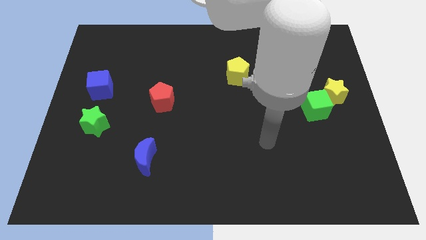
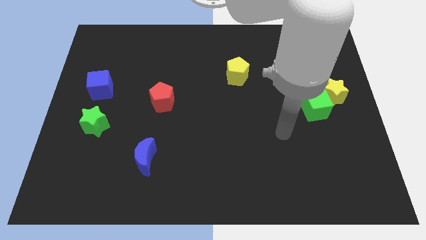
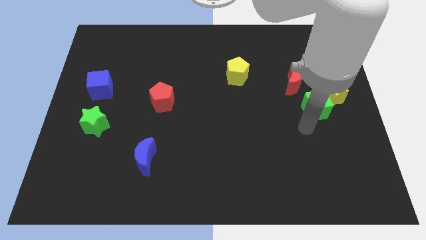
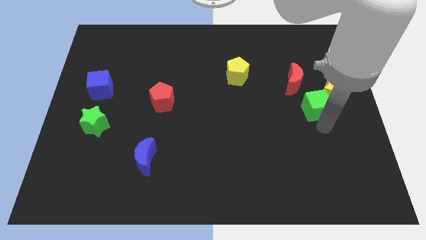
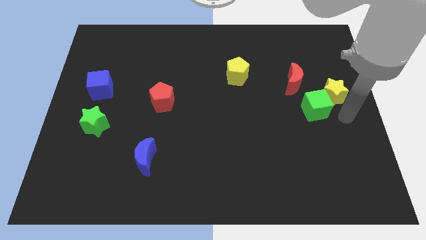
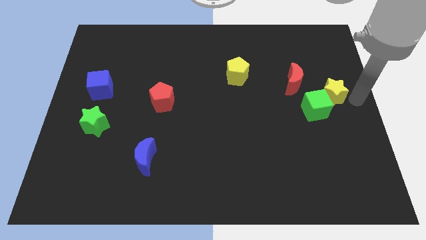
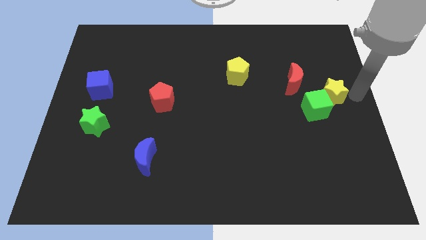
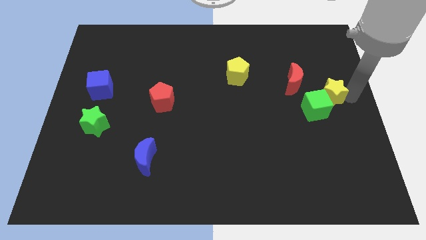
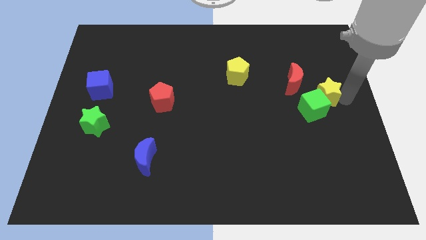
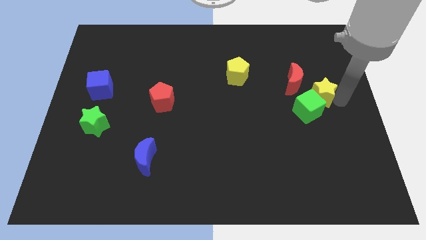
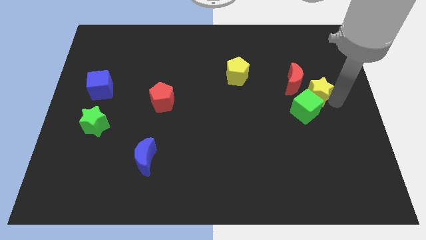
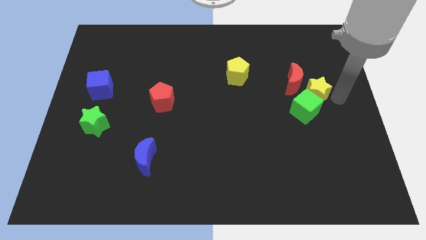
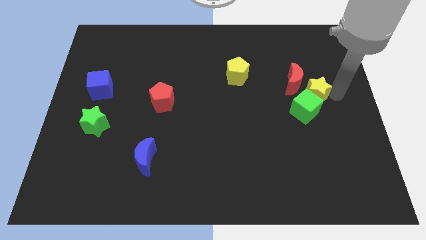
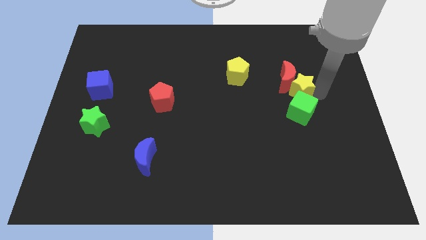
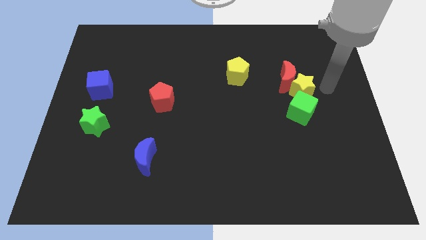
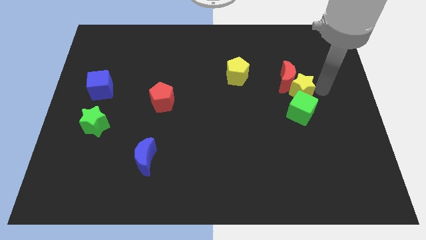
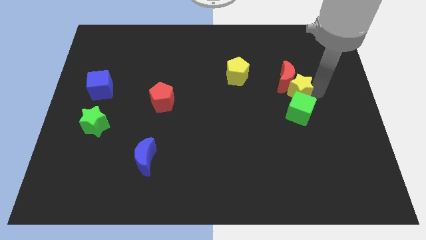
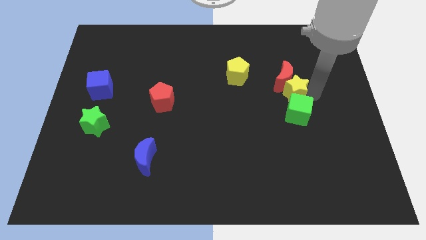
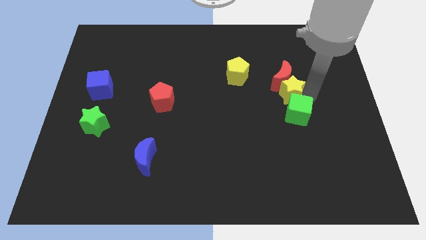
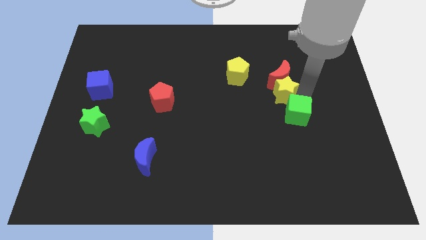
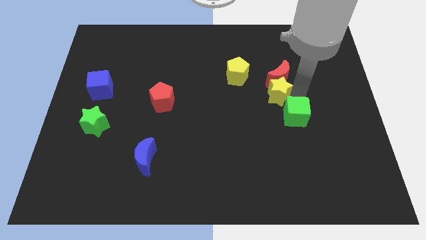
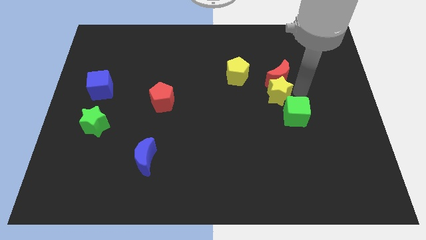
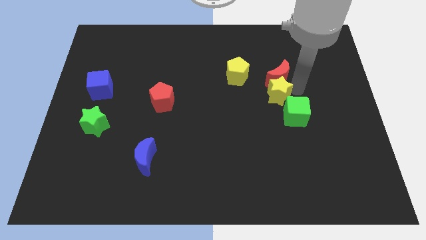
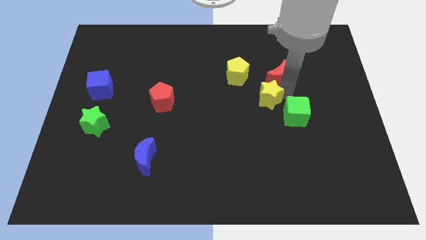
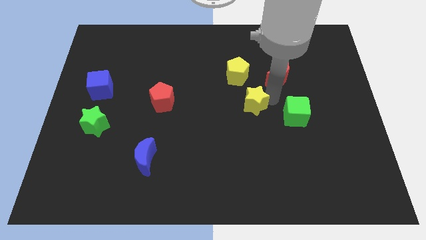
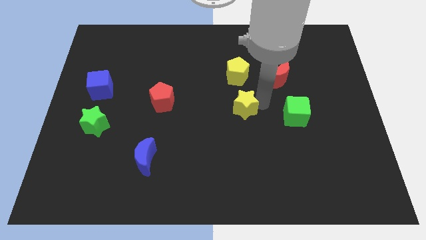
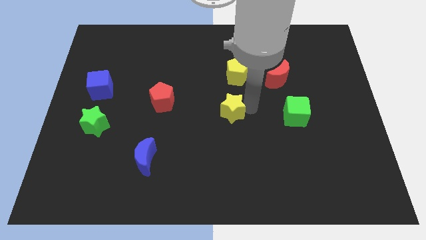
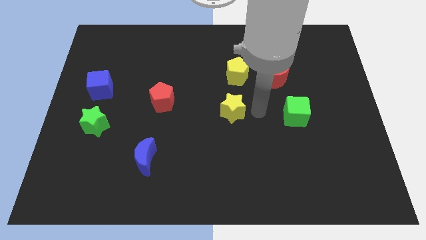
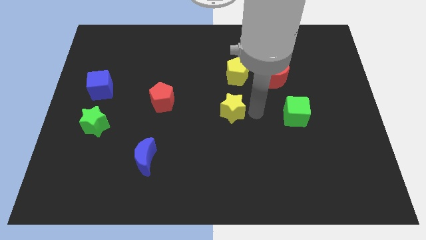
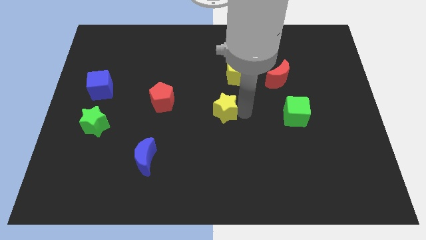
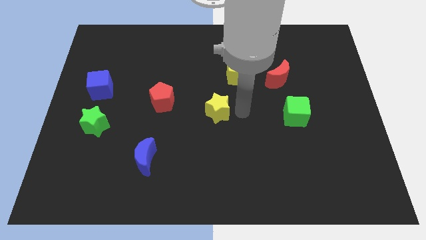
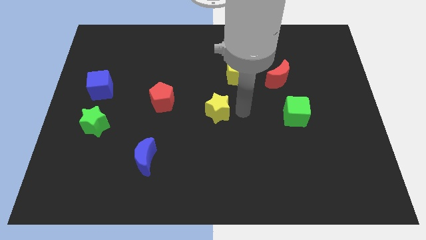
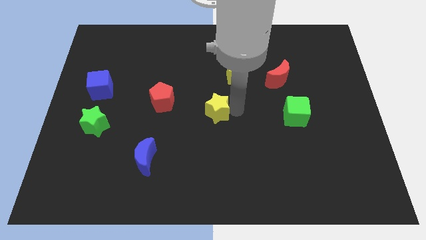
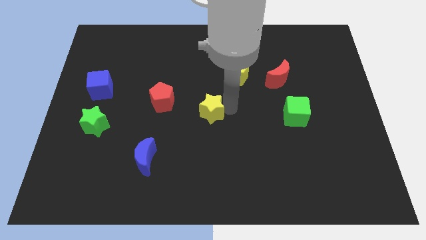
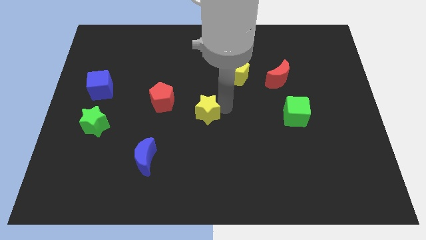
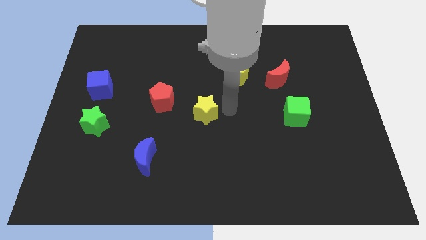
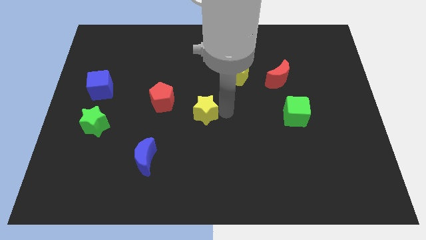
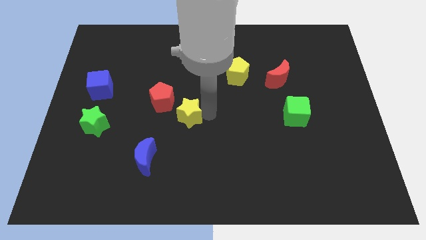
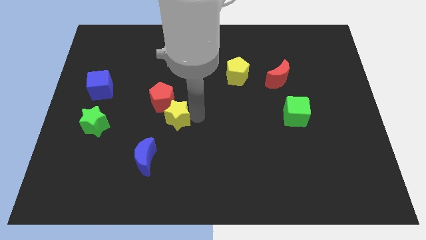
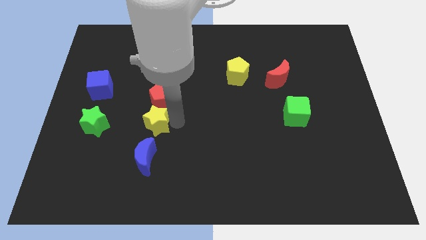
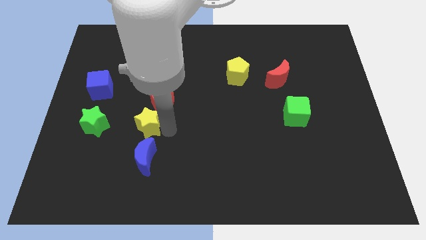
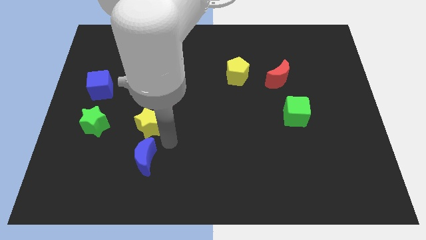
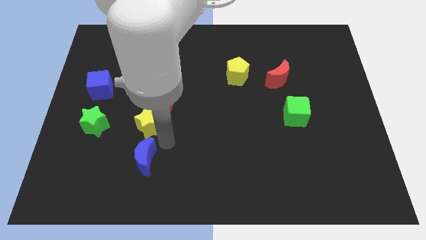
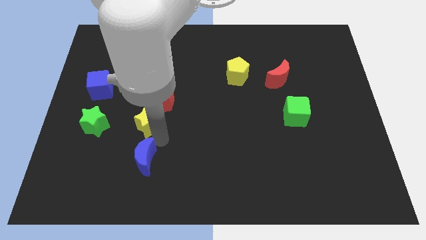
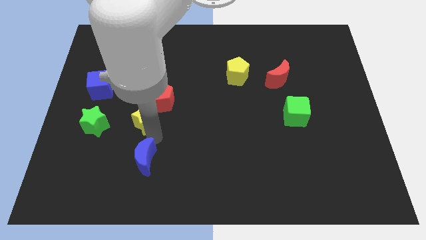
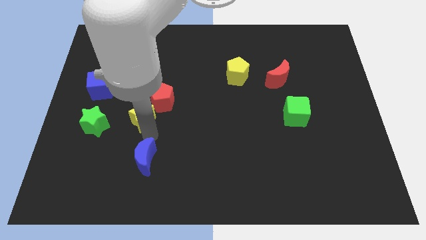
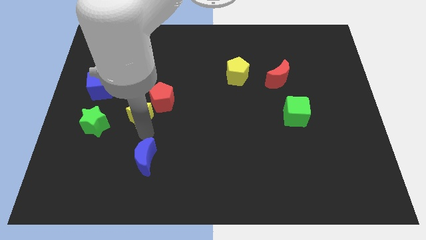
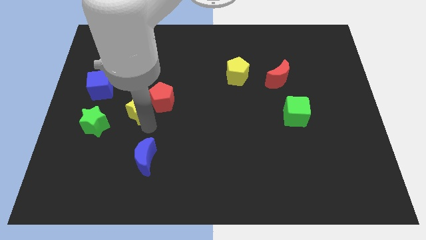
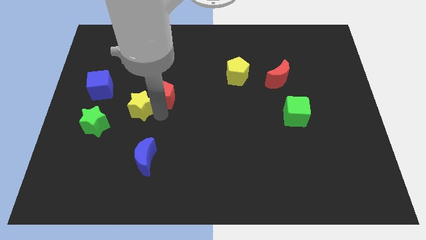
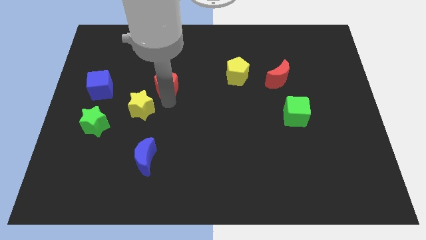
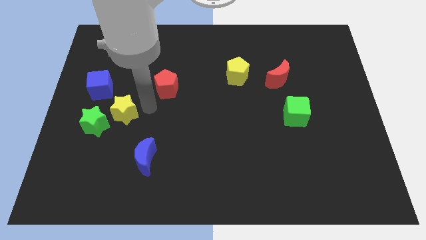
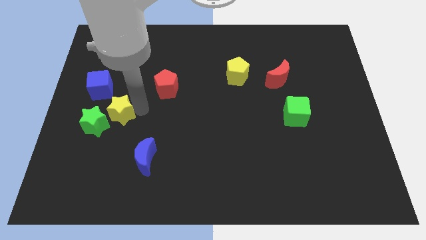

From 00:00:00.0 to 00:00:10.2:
slide the yellow star close to the green star

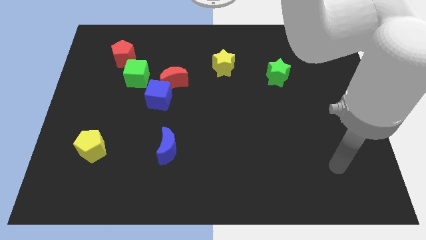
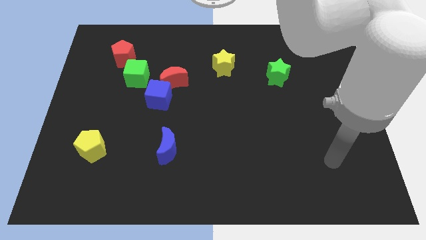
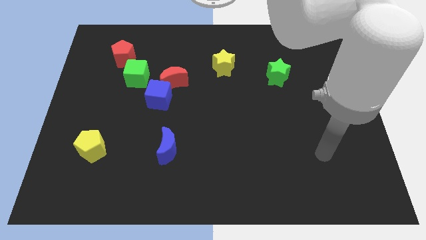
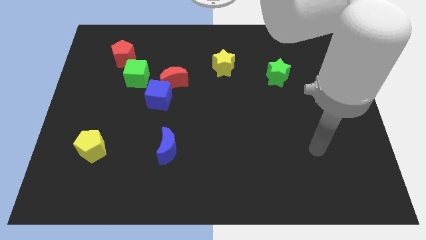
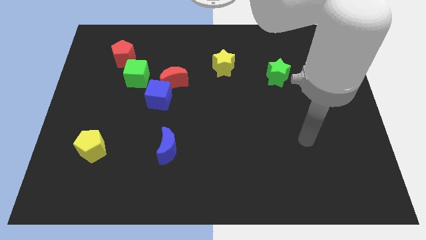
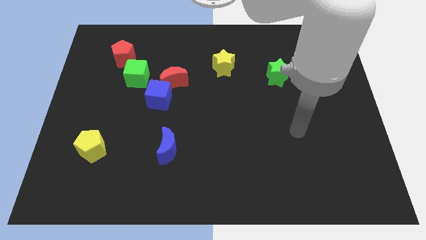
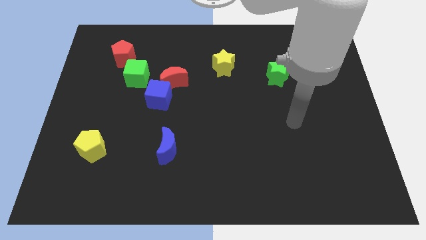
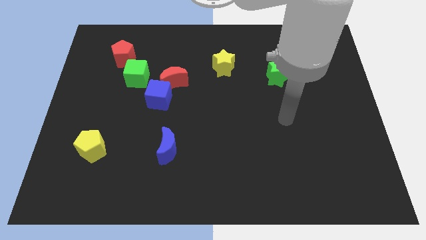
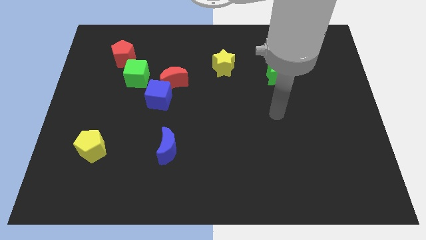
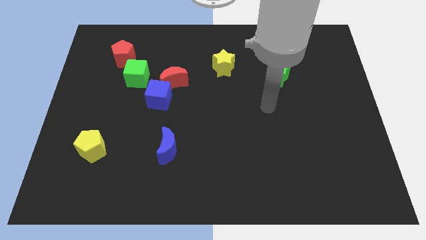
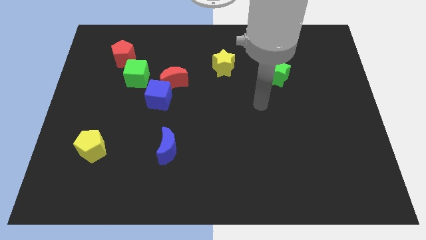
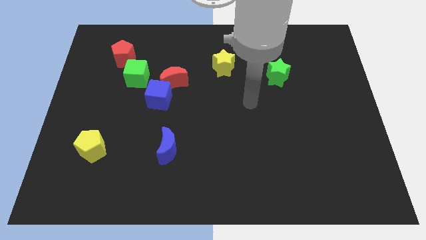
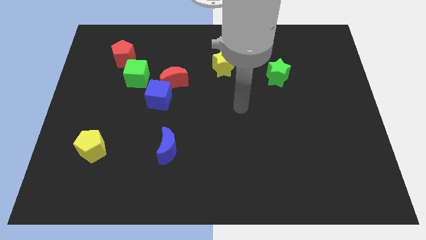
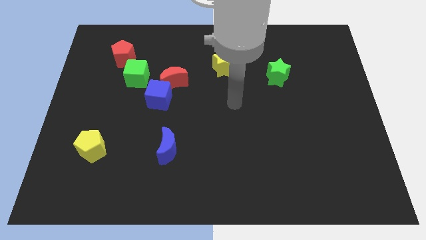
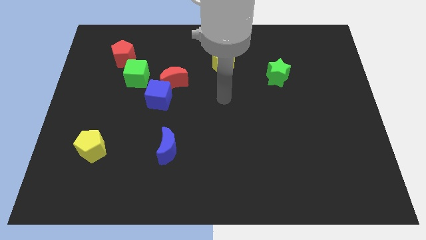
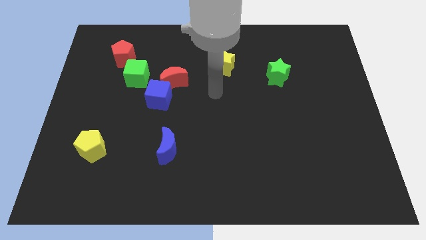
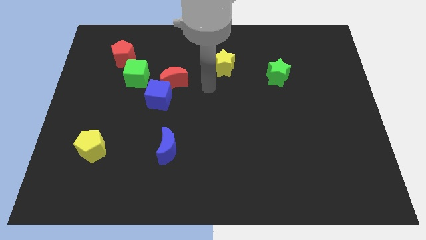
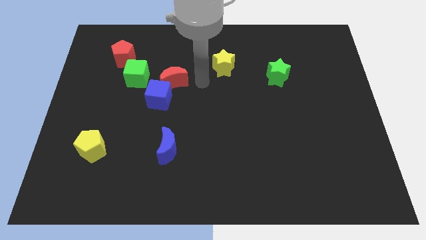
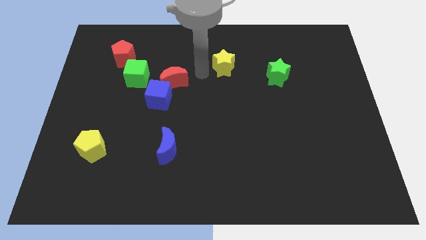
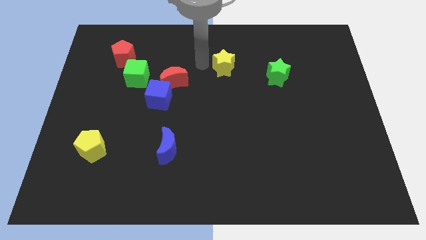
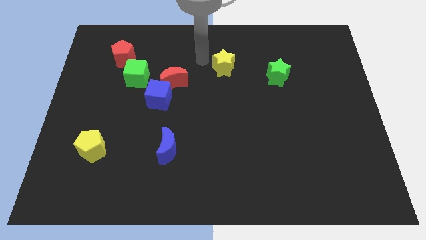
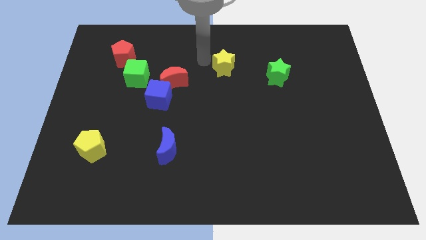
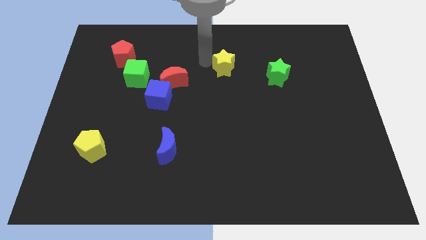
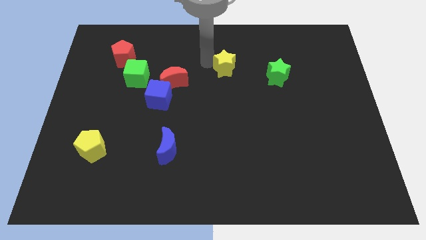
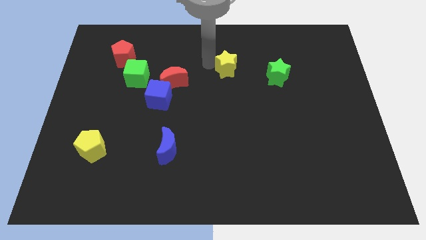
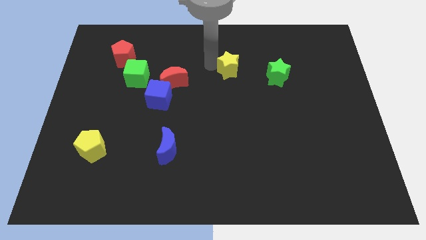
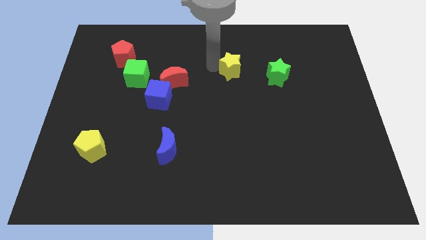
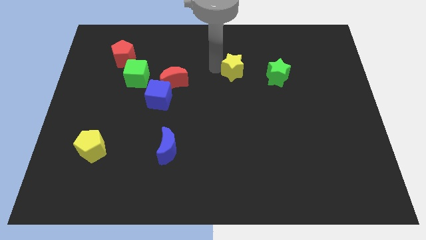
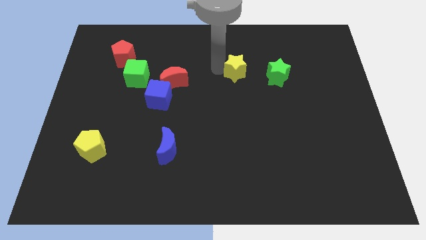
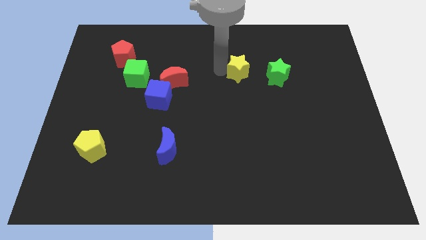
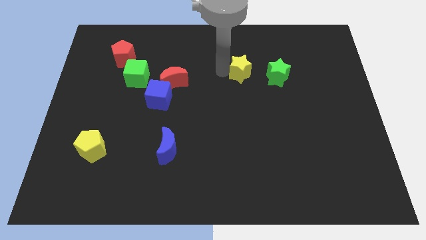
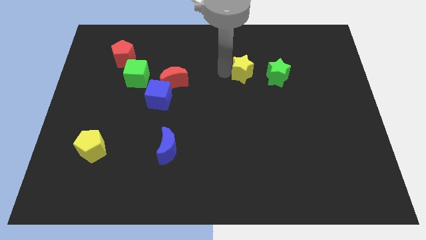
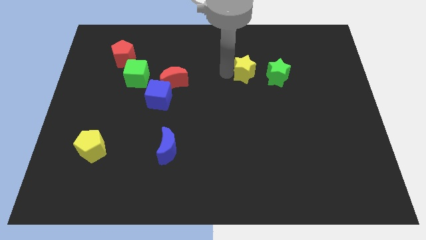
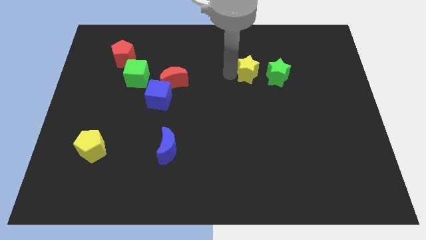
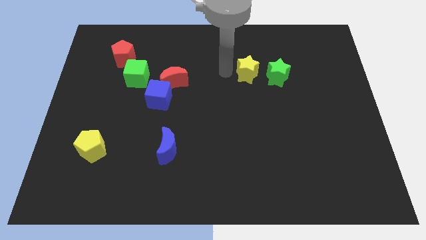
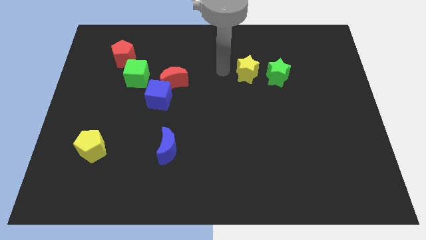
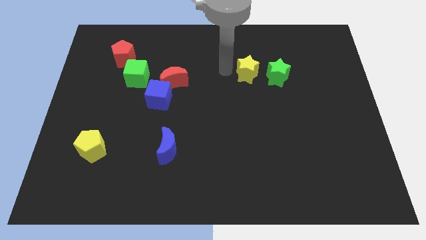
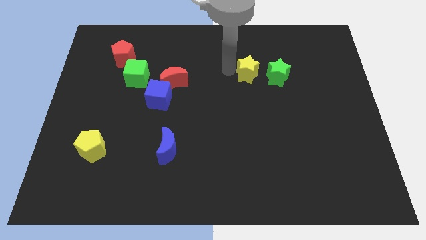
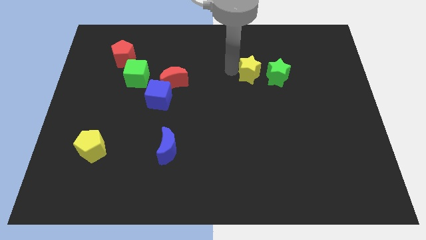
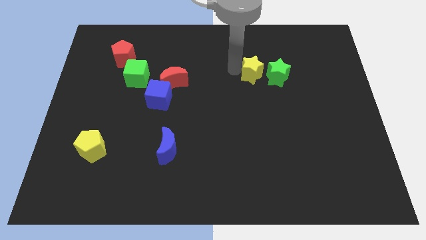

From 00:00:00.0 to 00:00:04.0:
move the yellow star close to the green star
